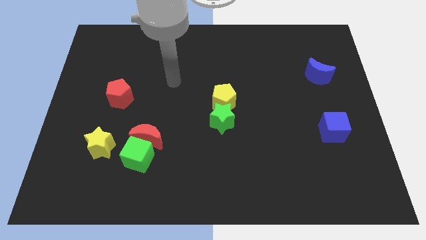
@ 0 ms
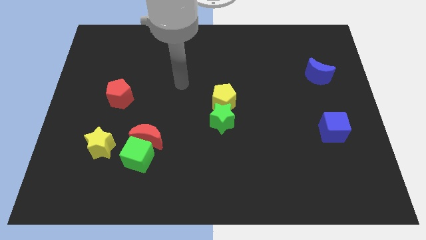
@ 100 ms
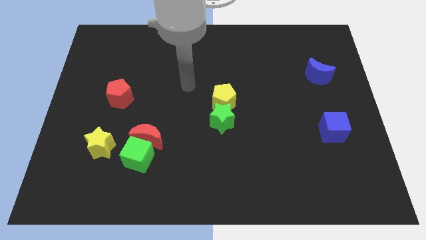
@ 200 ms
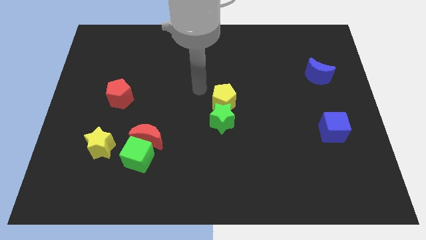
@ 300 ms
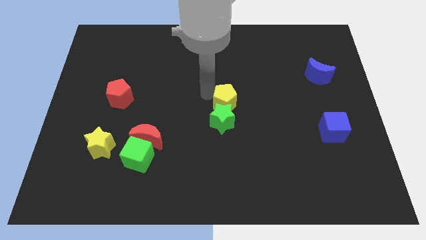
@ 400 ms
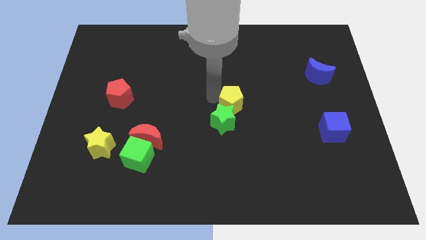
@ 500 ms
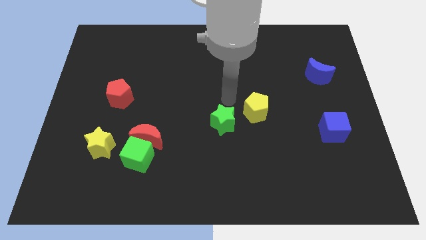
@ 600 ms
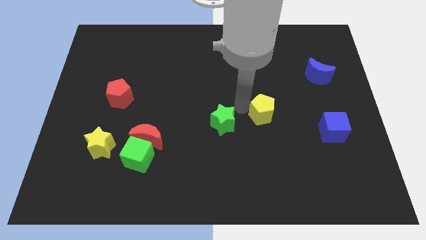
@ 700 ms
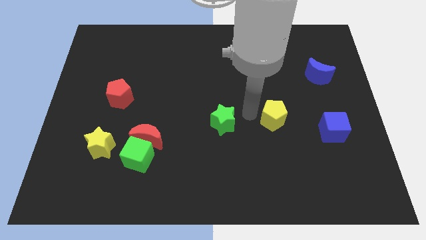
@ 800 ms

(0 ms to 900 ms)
pull the green star apart from the yellow pentagon

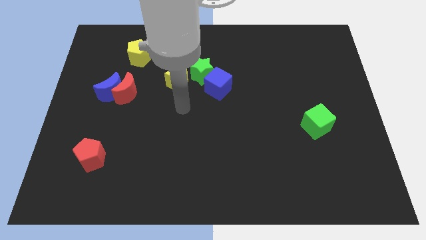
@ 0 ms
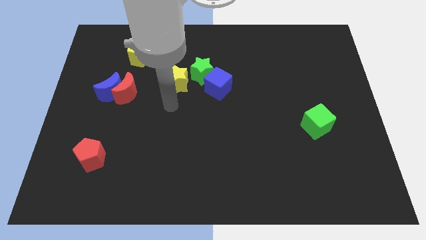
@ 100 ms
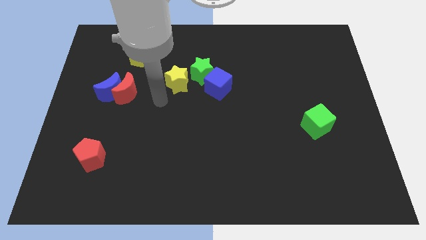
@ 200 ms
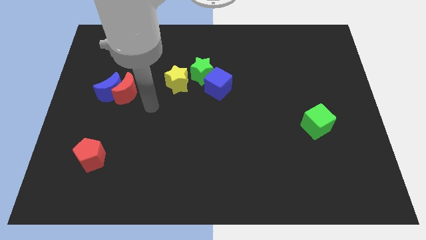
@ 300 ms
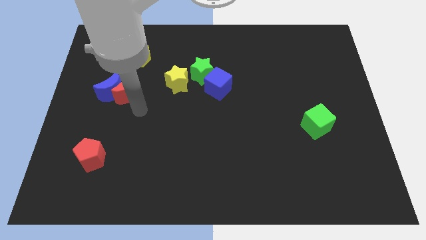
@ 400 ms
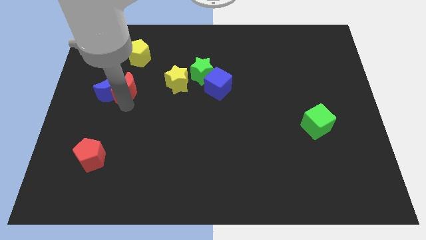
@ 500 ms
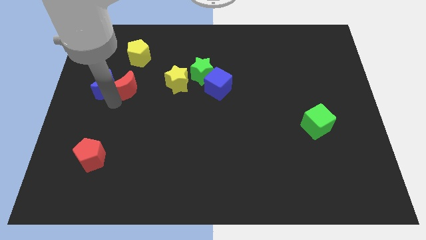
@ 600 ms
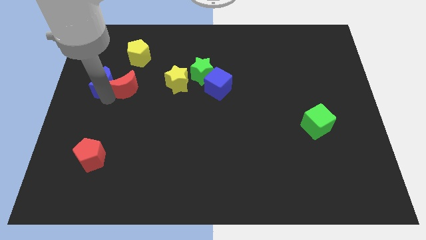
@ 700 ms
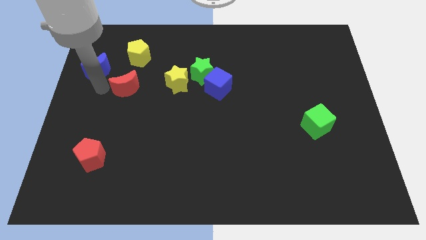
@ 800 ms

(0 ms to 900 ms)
move the red moon away from the blue moon

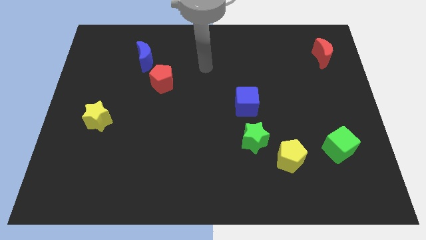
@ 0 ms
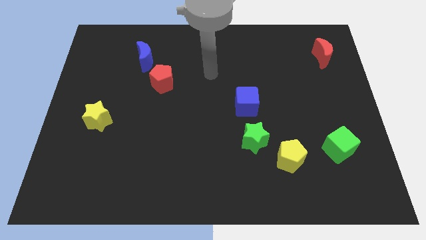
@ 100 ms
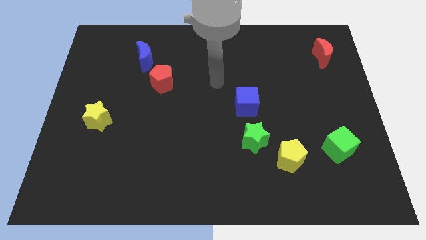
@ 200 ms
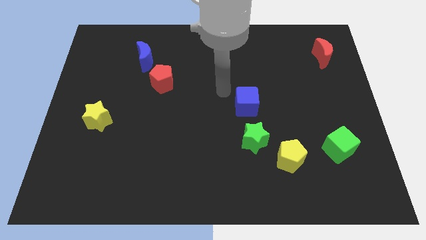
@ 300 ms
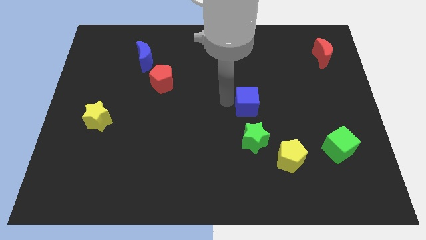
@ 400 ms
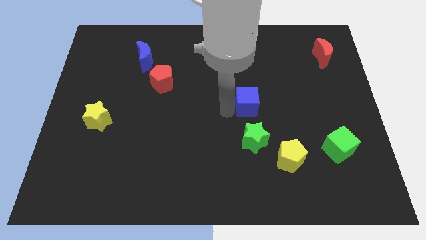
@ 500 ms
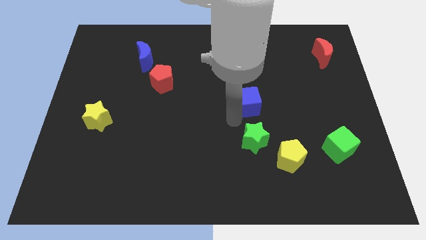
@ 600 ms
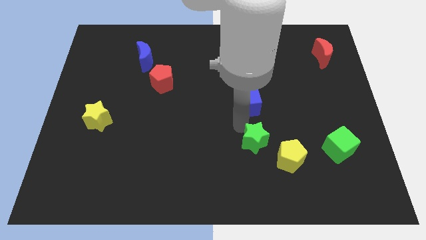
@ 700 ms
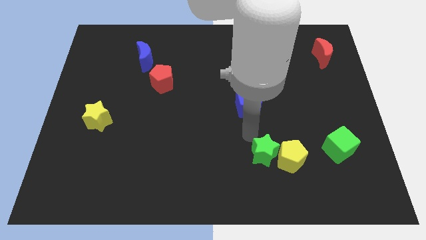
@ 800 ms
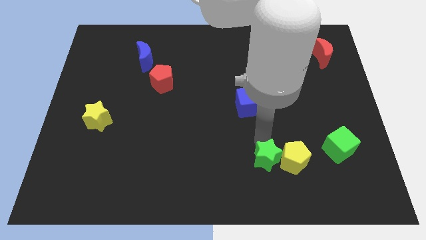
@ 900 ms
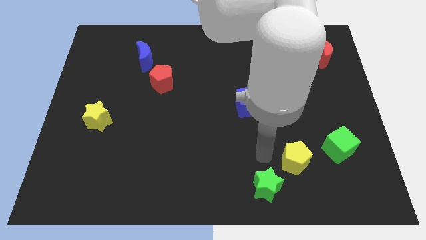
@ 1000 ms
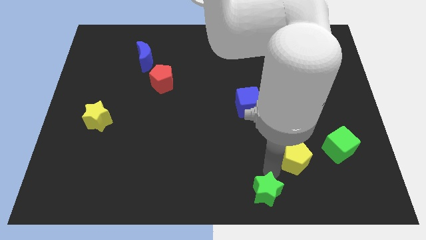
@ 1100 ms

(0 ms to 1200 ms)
move the yellow pentagon away from the green star

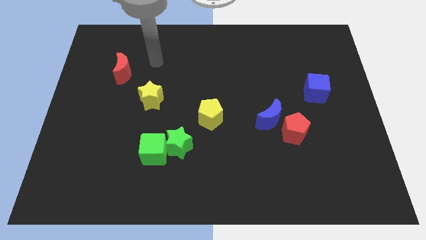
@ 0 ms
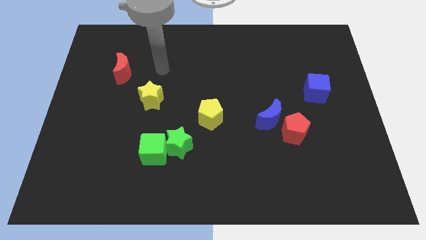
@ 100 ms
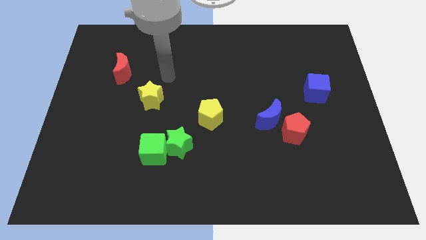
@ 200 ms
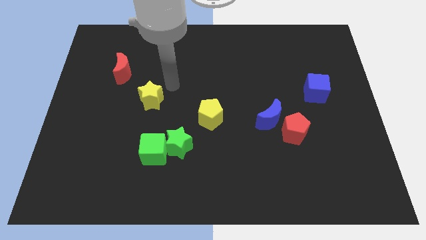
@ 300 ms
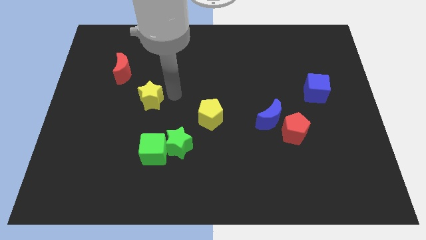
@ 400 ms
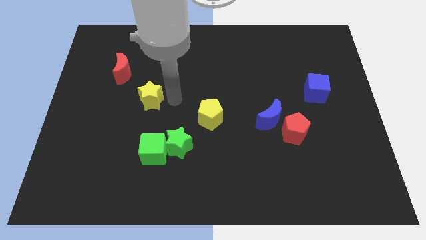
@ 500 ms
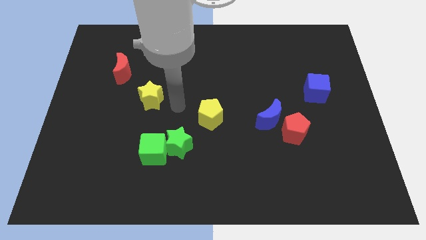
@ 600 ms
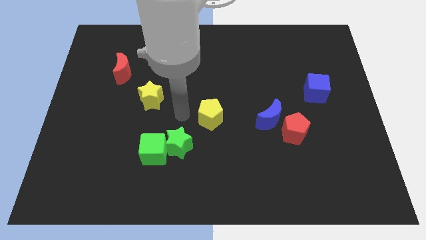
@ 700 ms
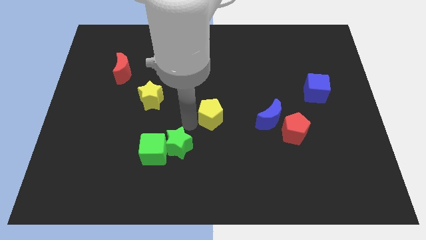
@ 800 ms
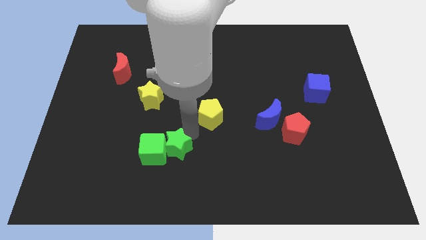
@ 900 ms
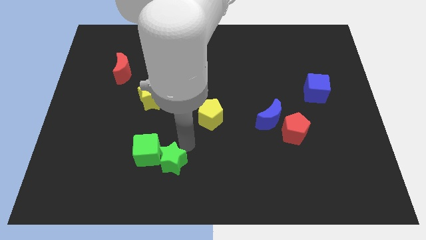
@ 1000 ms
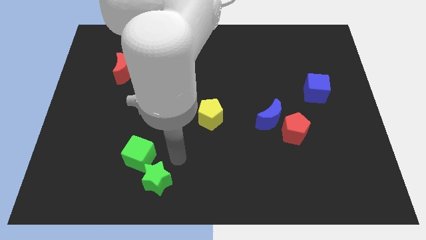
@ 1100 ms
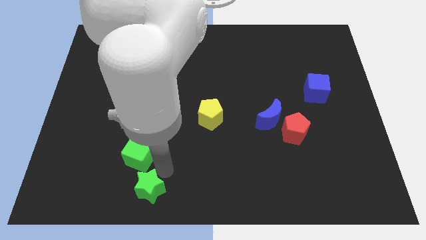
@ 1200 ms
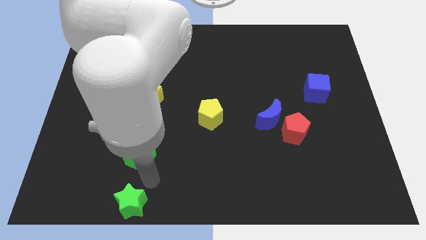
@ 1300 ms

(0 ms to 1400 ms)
pull the green cube apart from the green star

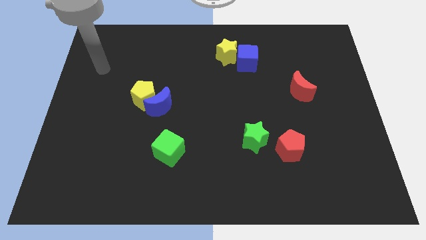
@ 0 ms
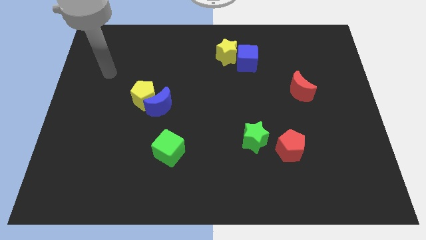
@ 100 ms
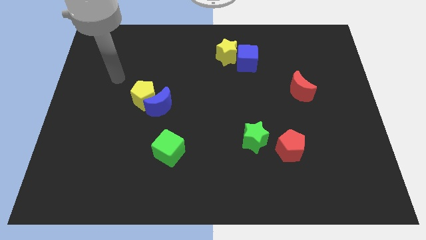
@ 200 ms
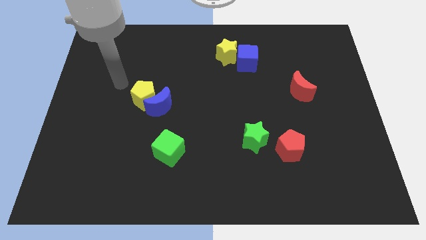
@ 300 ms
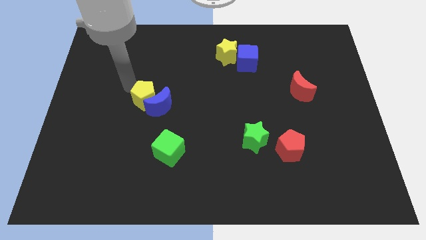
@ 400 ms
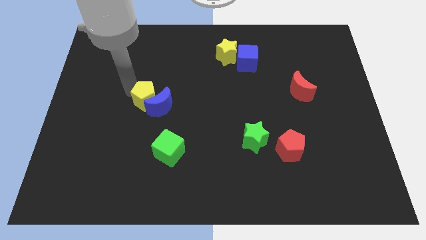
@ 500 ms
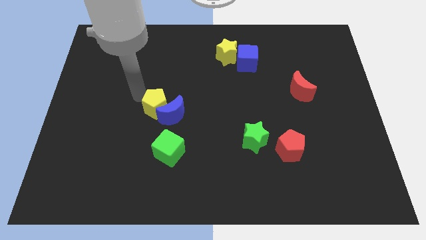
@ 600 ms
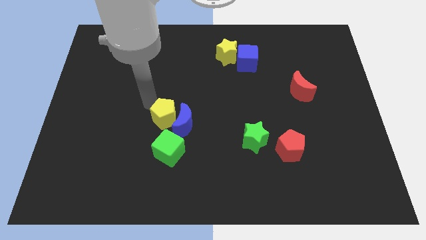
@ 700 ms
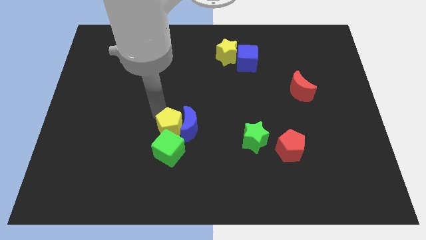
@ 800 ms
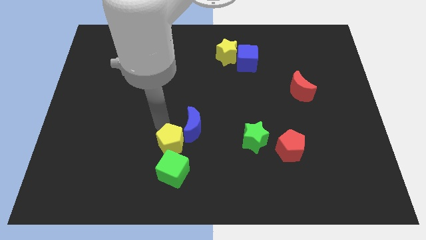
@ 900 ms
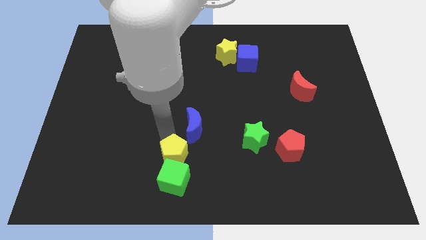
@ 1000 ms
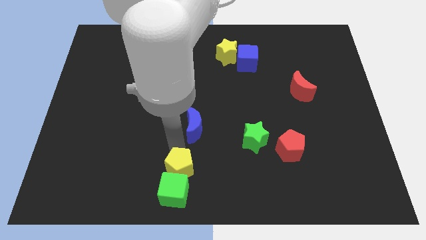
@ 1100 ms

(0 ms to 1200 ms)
pull the blue moon apart from the yellow pentagon

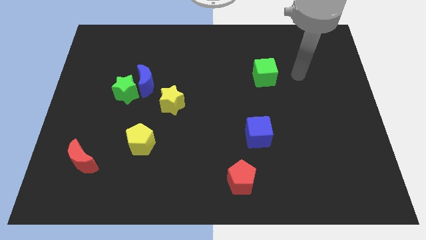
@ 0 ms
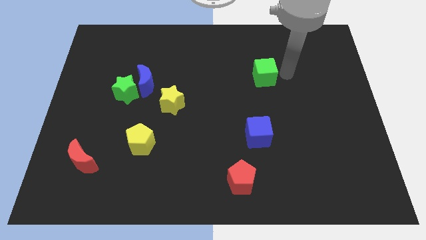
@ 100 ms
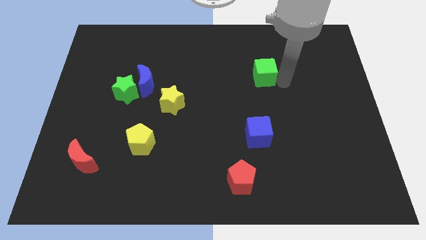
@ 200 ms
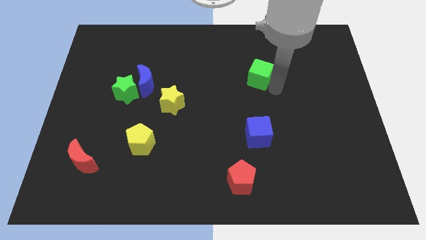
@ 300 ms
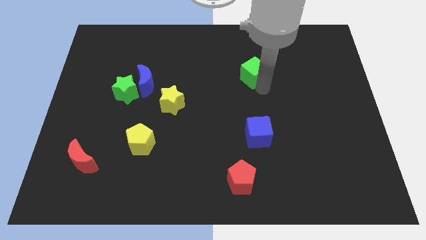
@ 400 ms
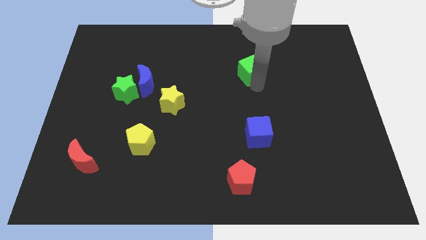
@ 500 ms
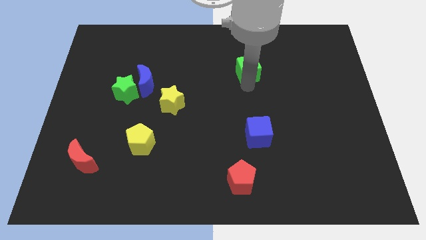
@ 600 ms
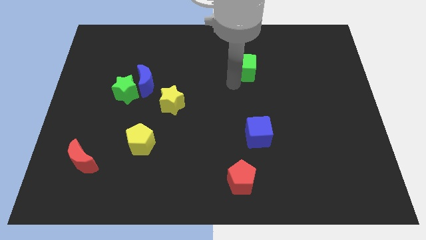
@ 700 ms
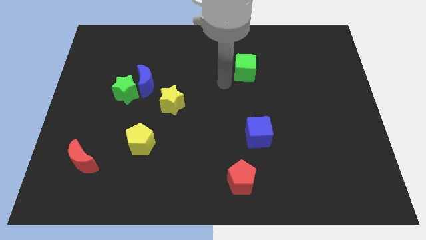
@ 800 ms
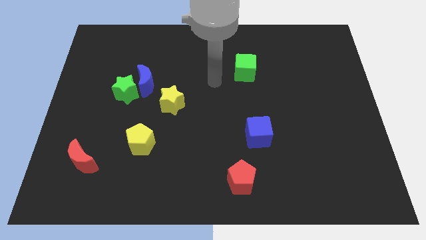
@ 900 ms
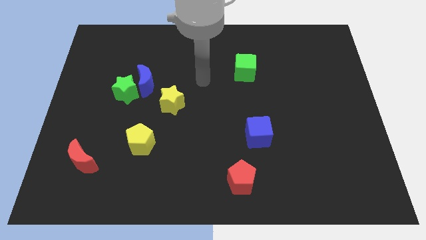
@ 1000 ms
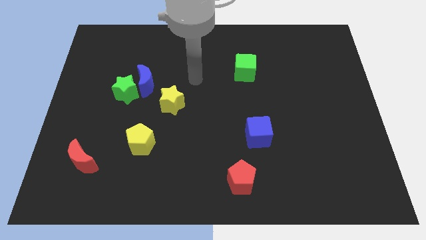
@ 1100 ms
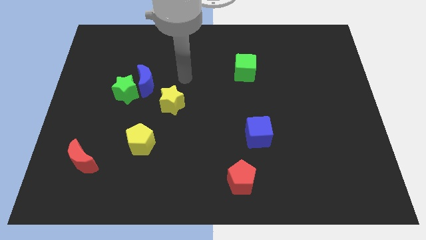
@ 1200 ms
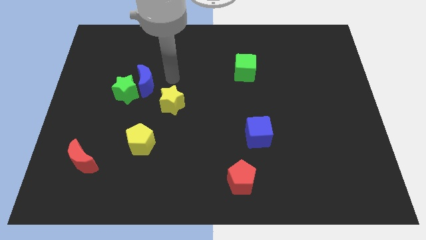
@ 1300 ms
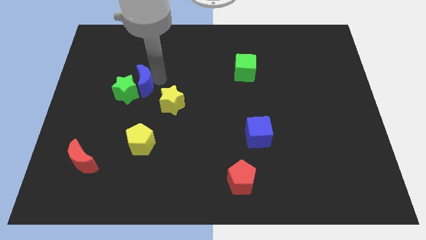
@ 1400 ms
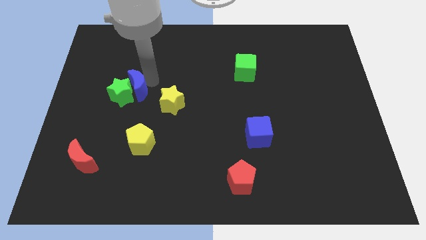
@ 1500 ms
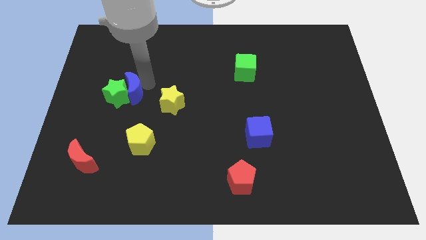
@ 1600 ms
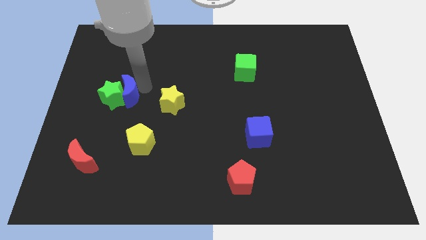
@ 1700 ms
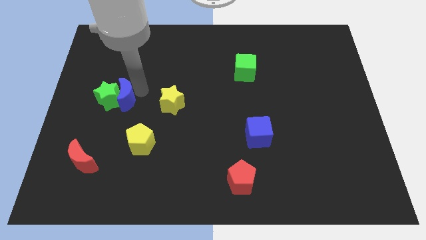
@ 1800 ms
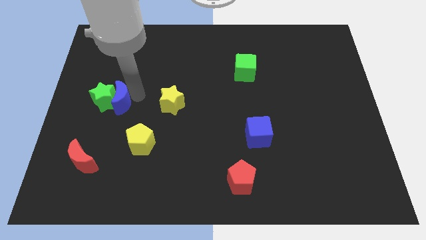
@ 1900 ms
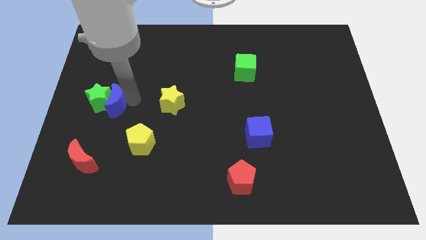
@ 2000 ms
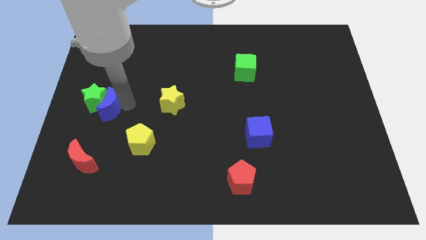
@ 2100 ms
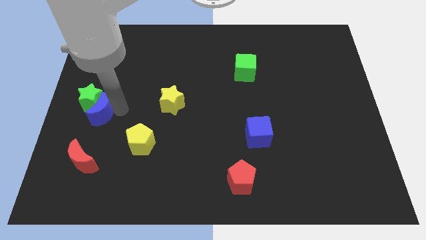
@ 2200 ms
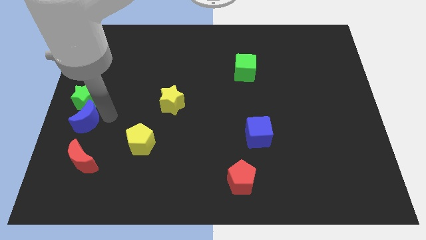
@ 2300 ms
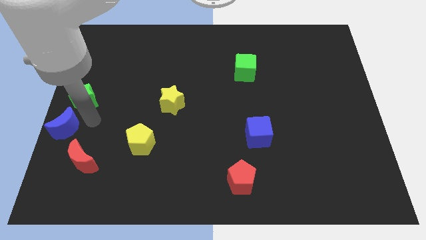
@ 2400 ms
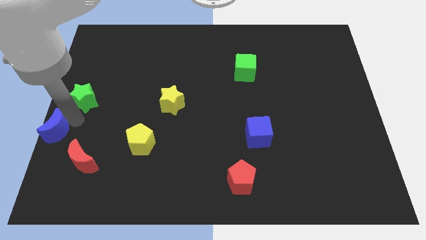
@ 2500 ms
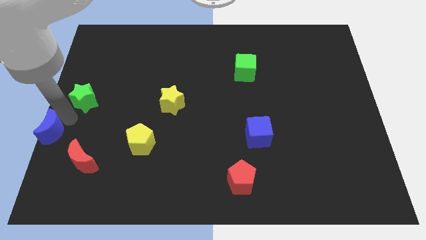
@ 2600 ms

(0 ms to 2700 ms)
separate the green star from the blue moon

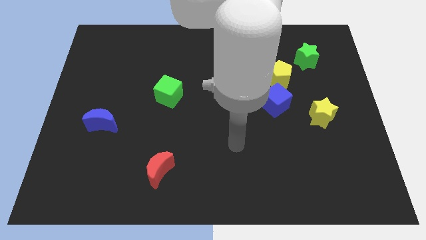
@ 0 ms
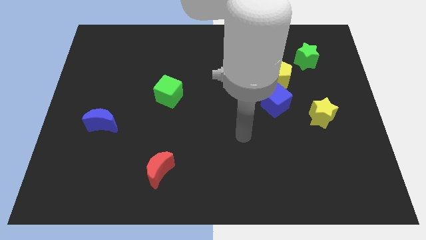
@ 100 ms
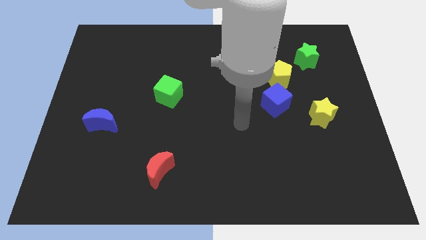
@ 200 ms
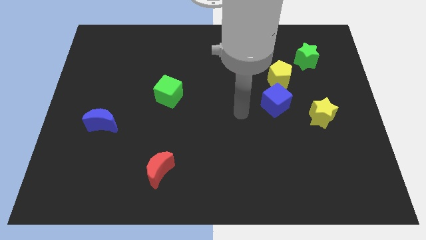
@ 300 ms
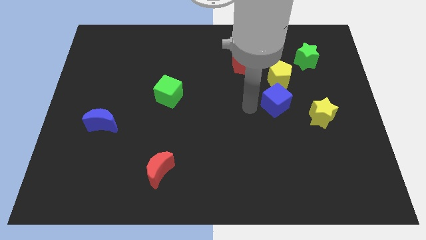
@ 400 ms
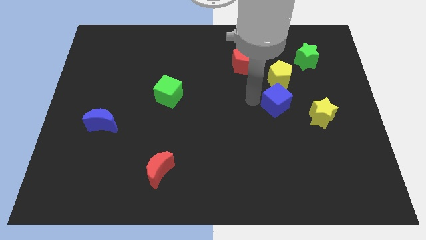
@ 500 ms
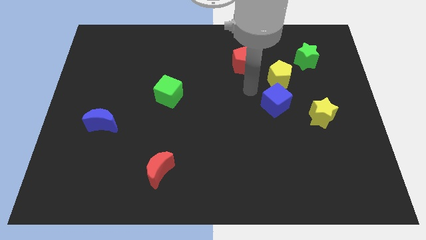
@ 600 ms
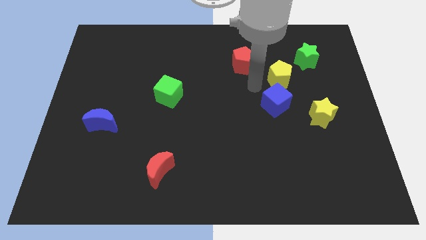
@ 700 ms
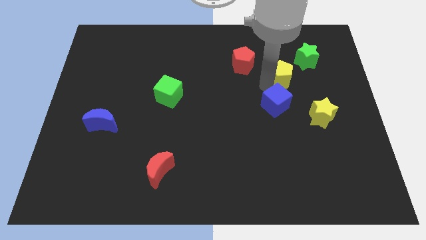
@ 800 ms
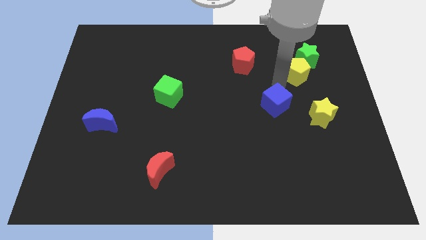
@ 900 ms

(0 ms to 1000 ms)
separate the blue cube from the yellow pentagon

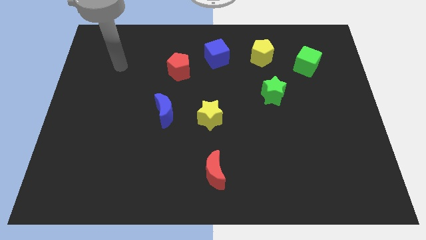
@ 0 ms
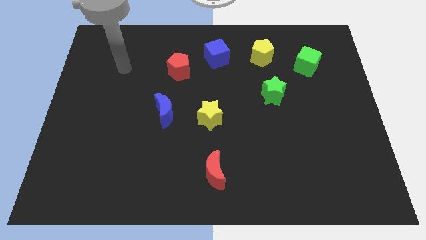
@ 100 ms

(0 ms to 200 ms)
pull the blue moon apart from the yellow star

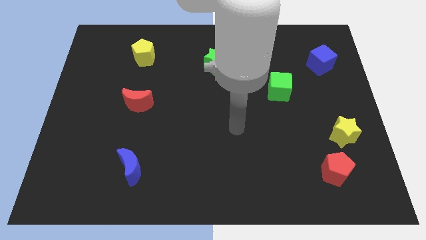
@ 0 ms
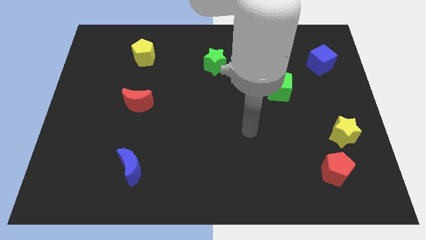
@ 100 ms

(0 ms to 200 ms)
move the red pentagon away from the yellow star
